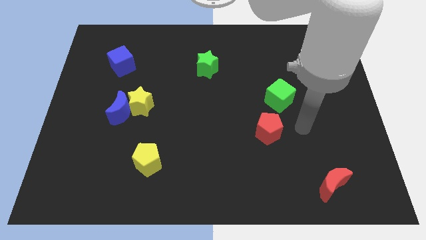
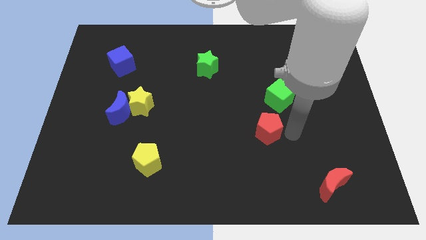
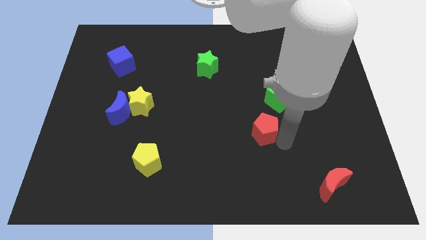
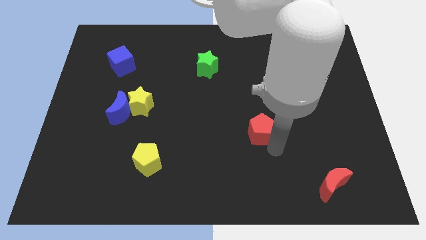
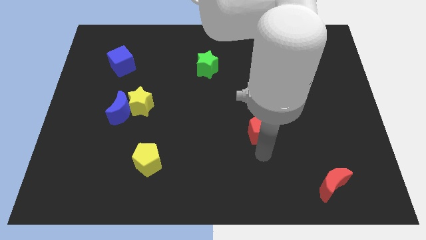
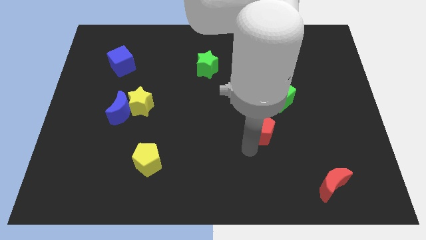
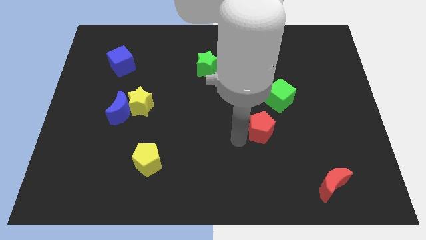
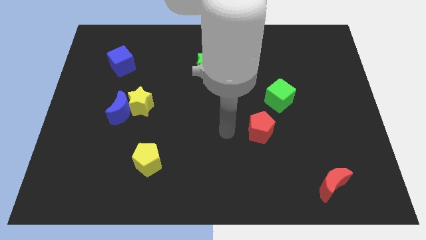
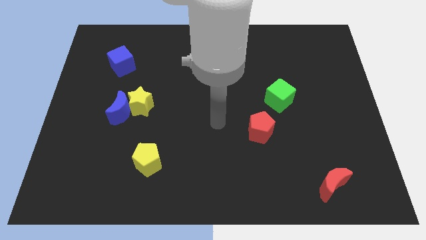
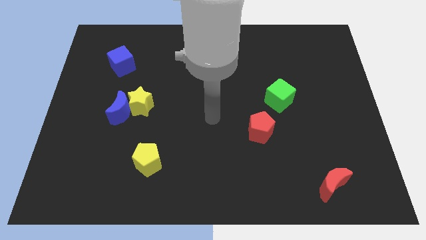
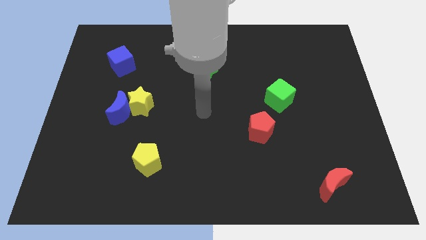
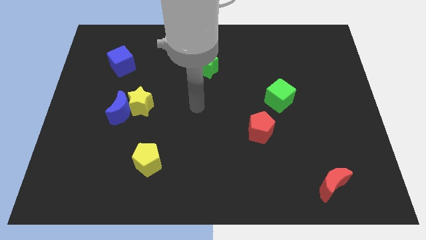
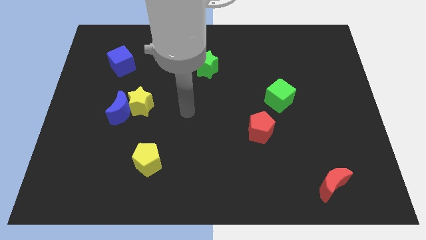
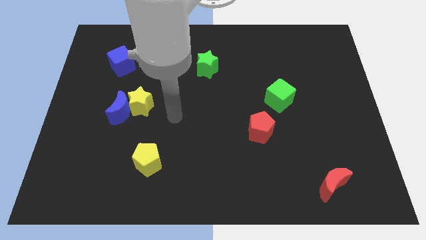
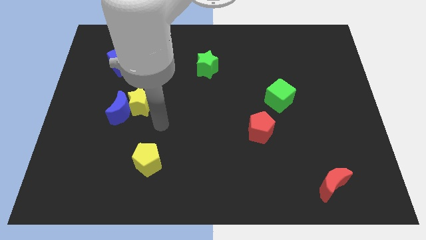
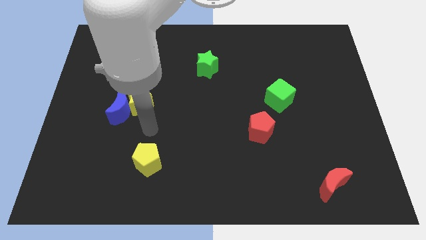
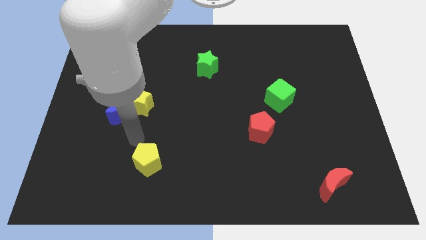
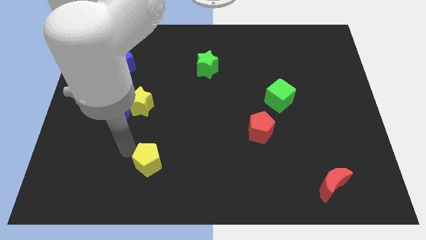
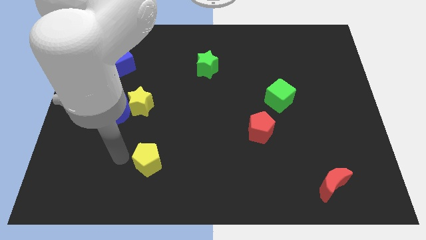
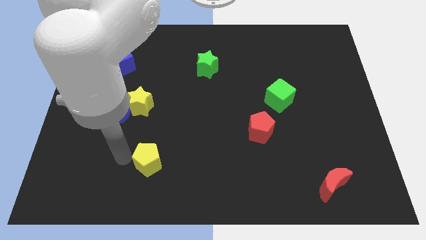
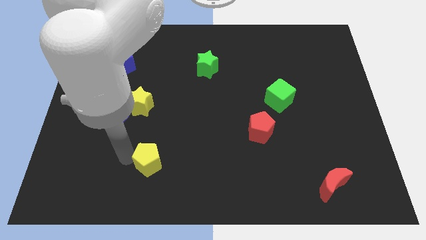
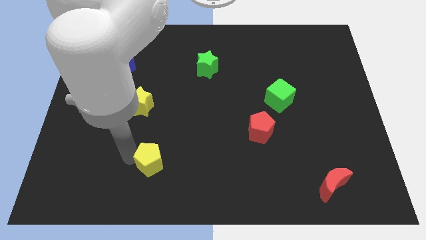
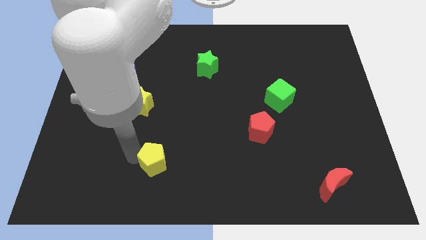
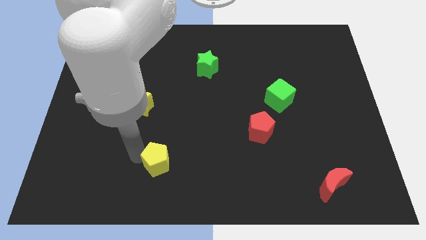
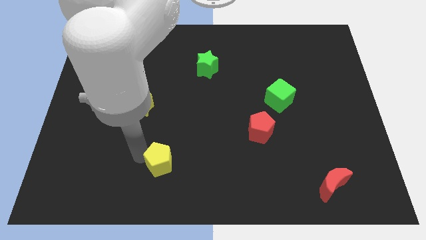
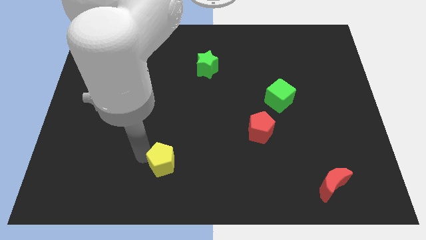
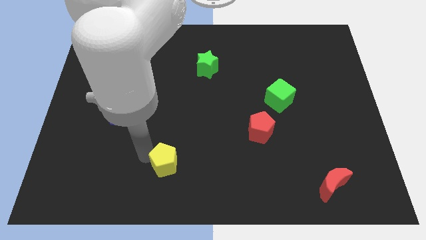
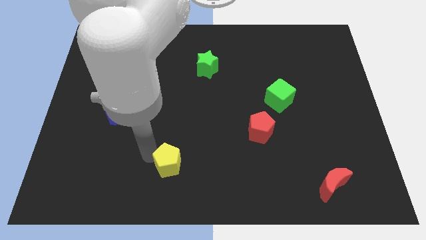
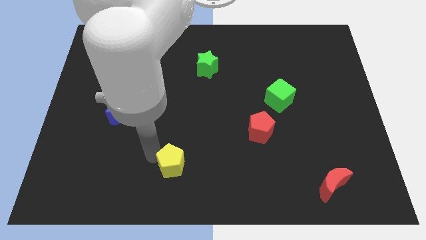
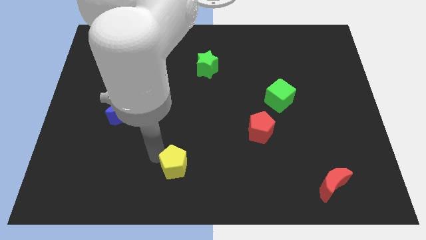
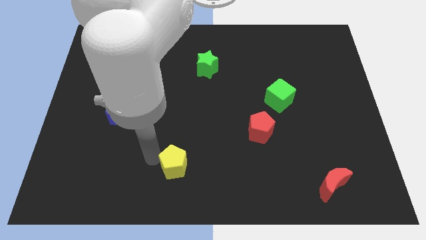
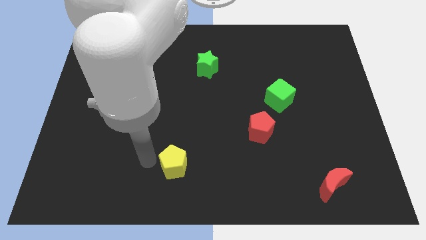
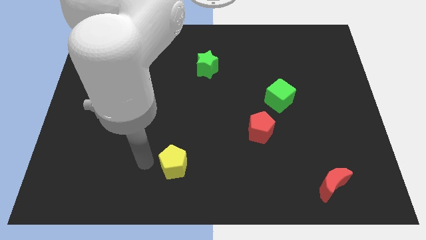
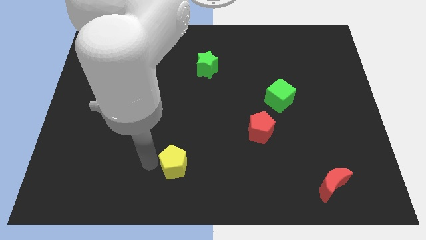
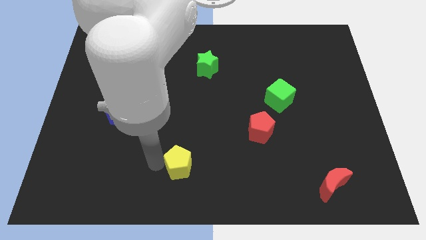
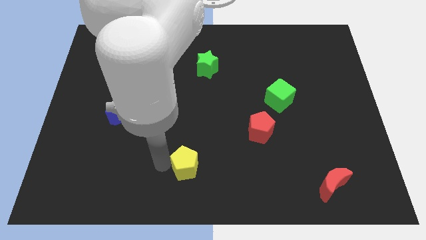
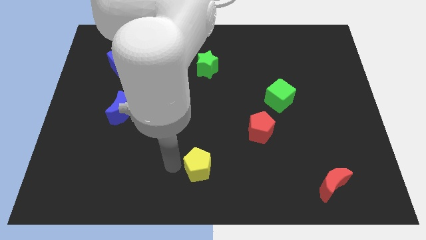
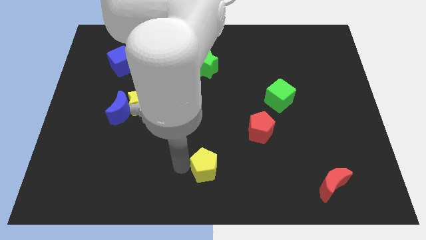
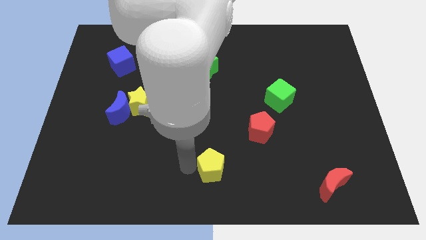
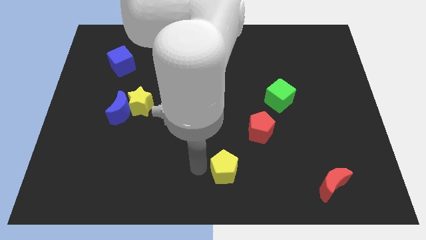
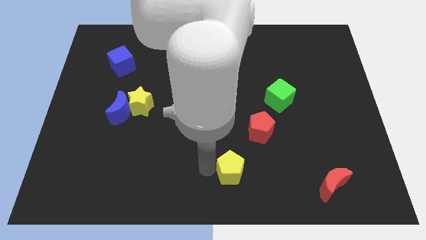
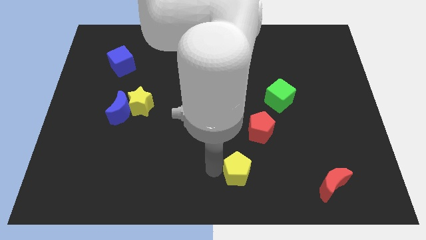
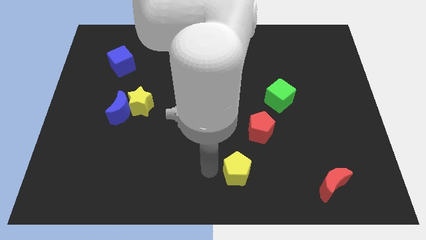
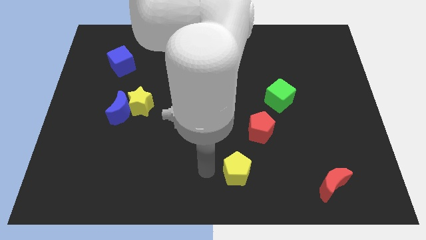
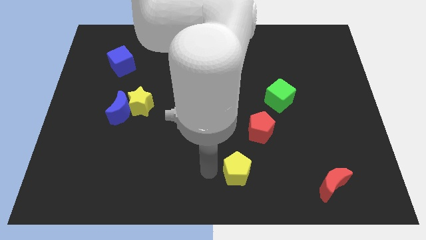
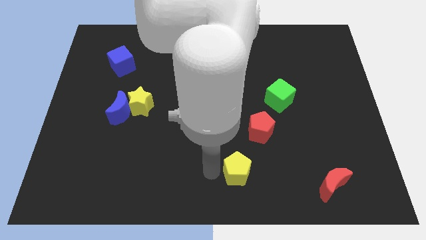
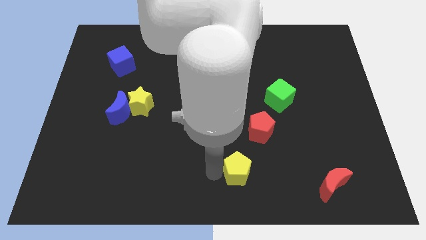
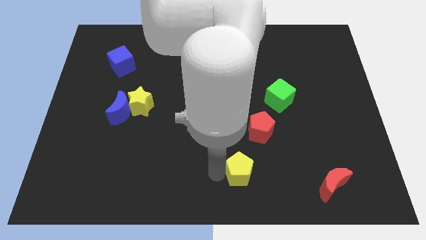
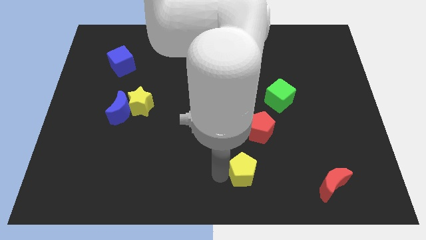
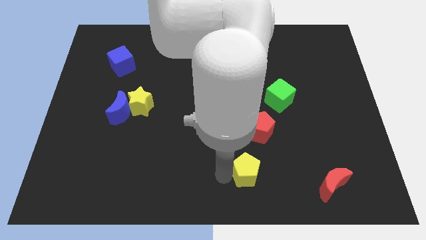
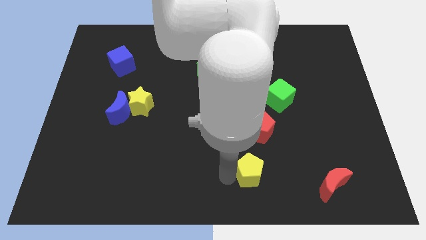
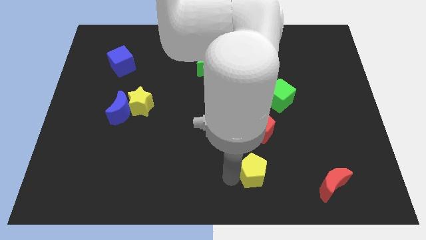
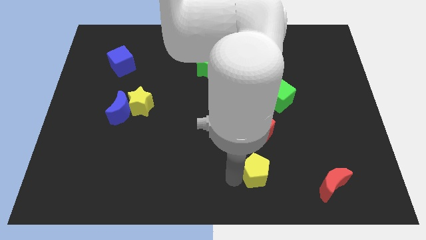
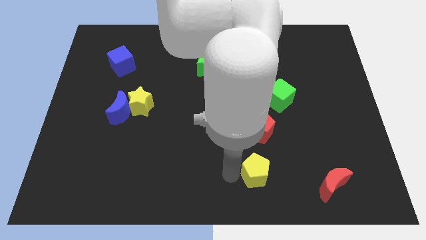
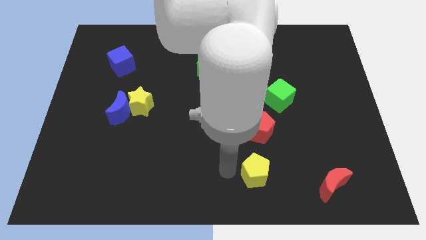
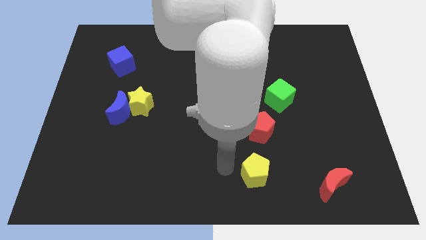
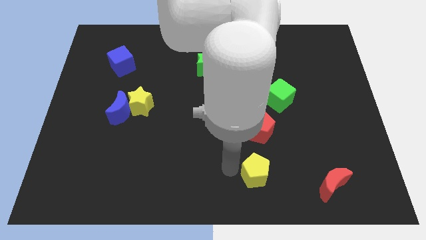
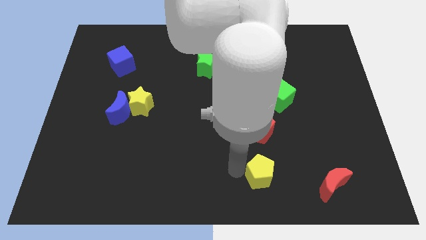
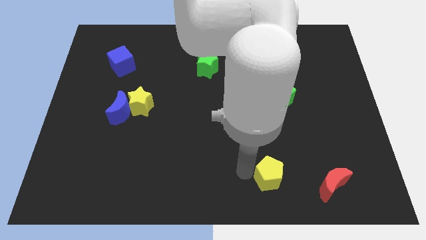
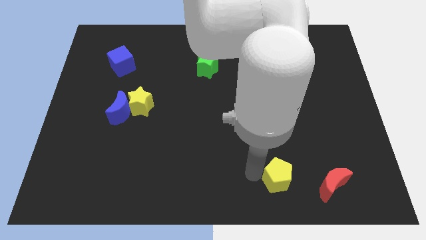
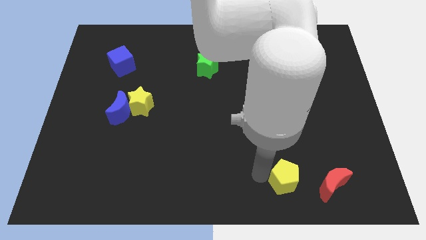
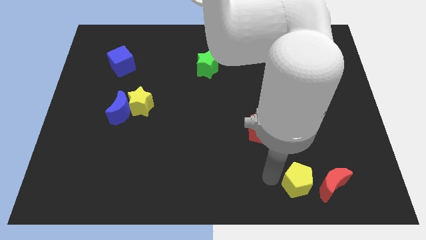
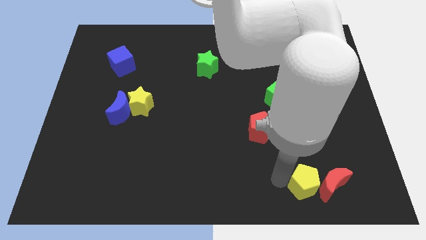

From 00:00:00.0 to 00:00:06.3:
put the yellow pentagon close to the red moon

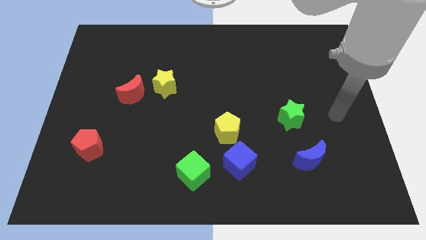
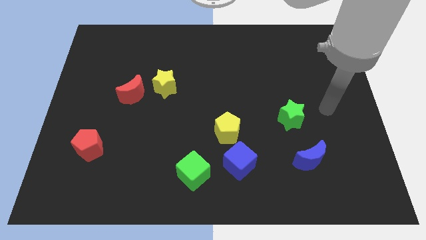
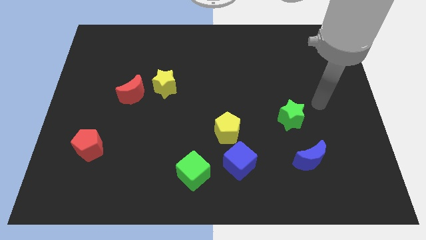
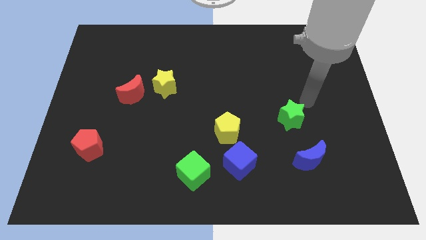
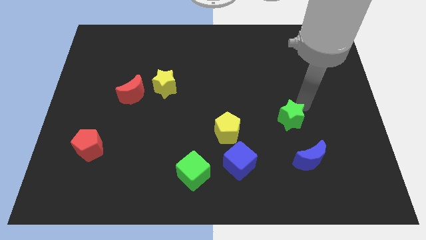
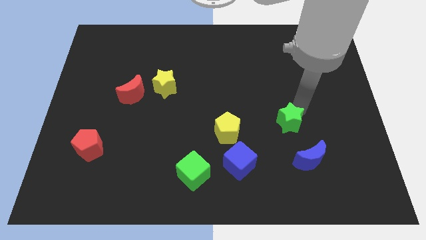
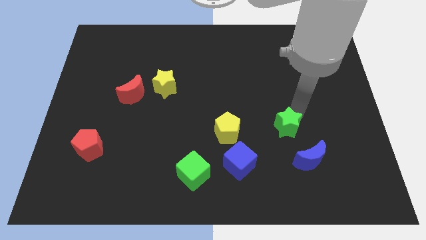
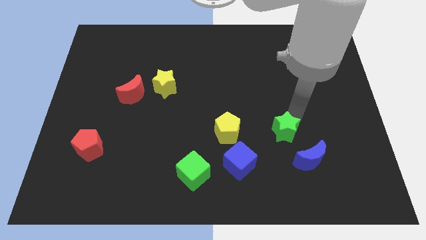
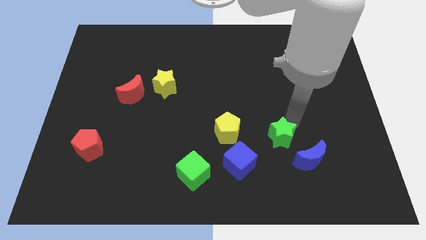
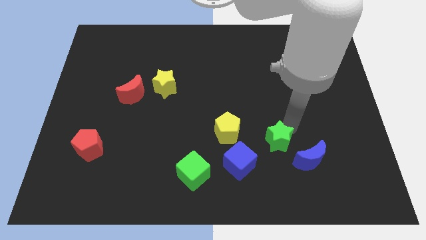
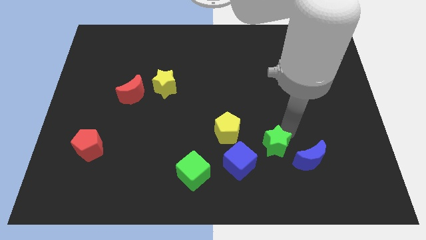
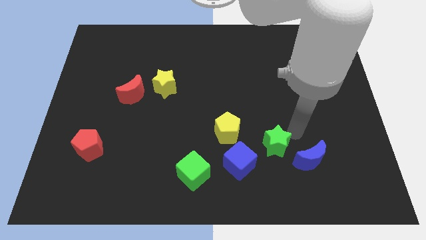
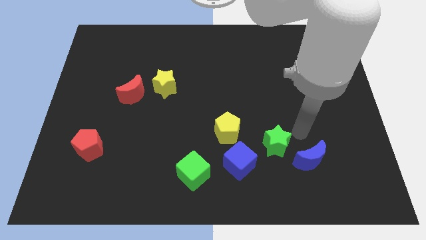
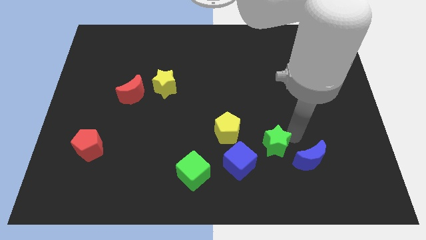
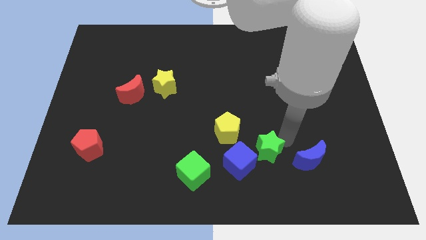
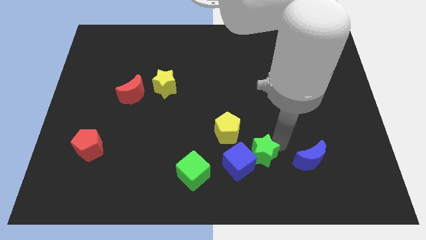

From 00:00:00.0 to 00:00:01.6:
push the green star next to the blue cube
